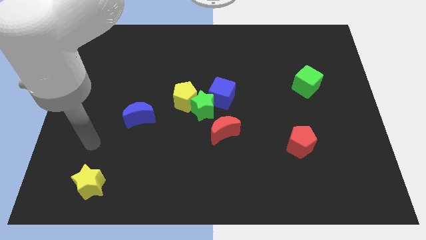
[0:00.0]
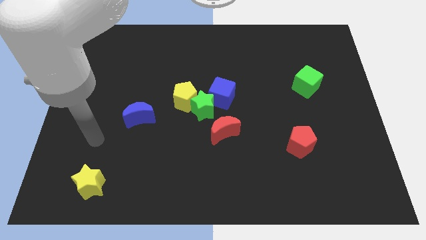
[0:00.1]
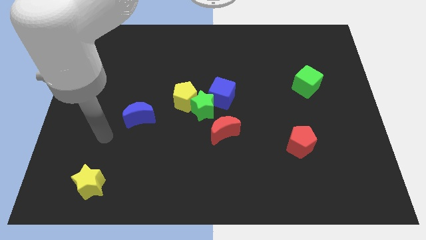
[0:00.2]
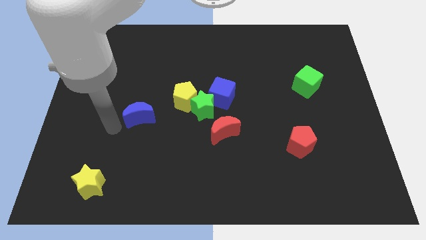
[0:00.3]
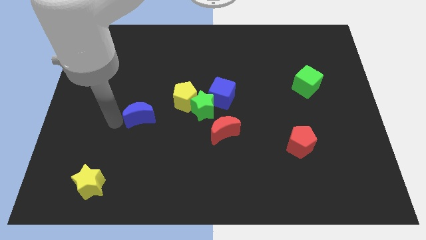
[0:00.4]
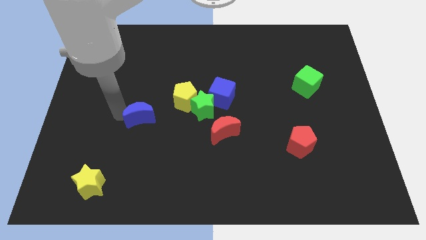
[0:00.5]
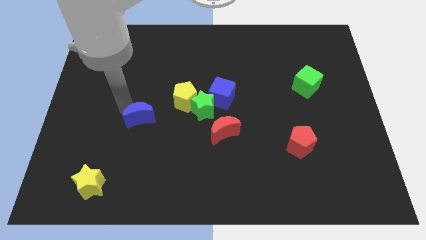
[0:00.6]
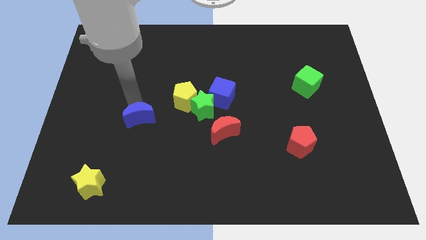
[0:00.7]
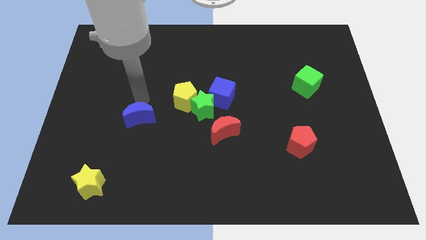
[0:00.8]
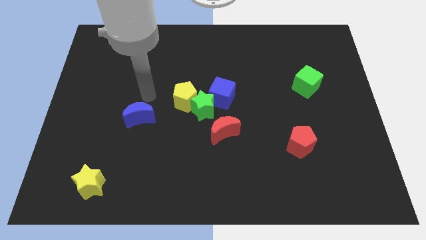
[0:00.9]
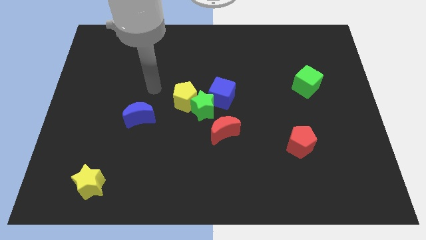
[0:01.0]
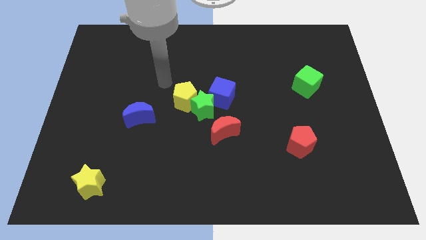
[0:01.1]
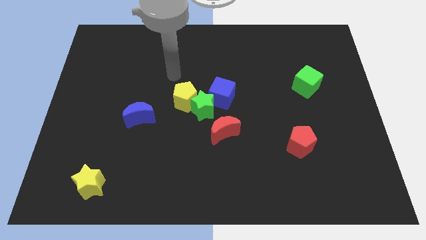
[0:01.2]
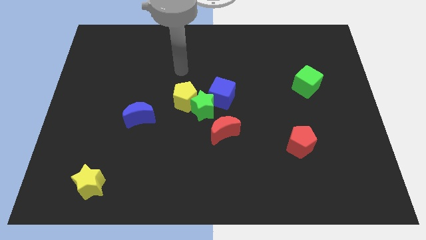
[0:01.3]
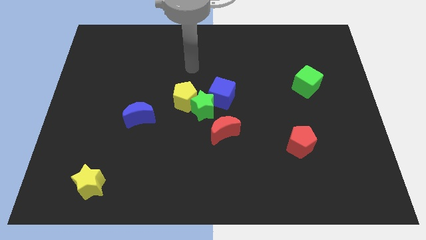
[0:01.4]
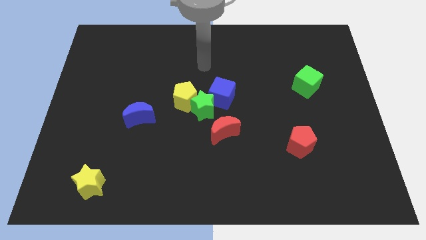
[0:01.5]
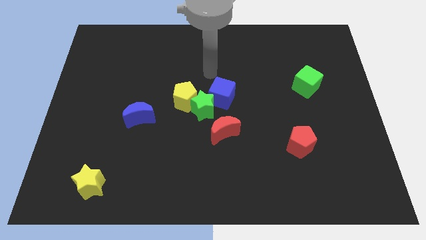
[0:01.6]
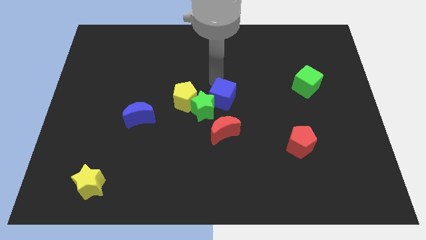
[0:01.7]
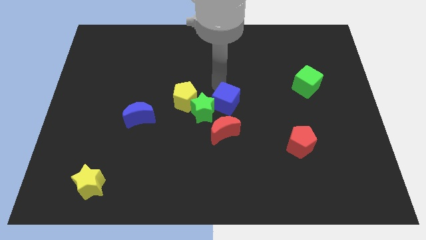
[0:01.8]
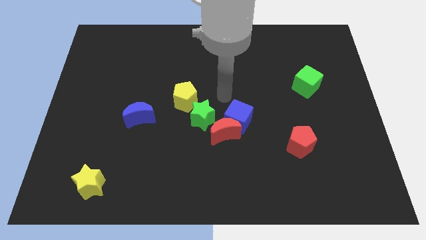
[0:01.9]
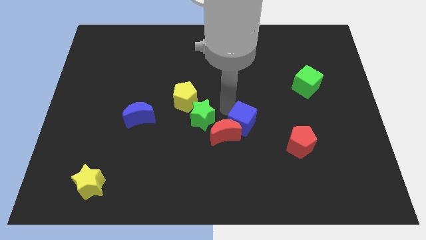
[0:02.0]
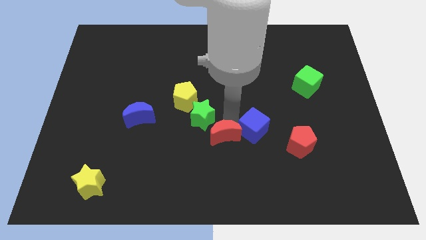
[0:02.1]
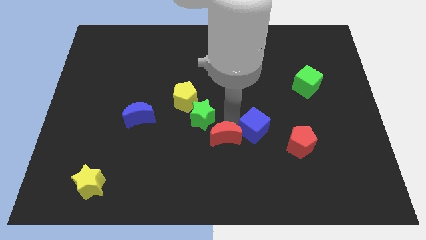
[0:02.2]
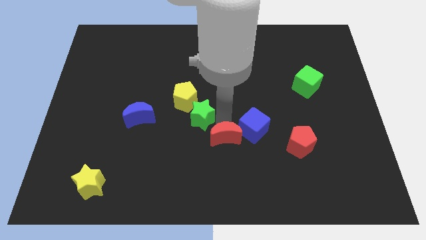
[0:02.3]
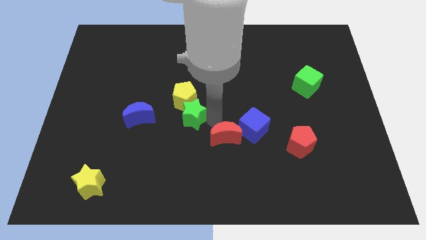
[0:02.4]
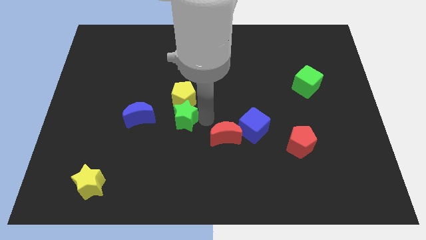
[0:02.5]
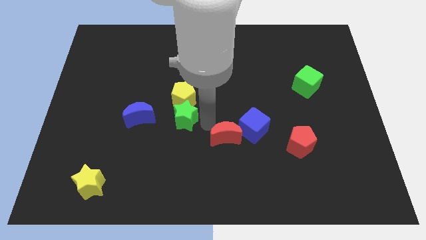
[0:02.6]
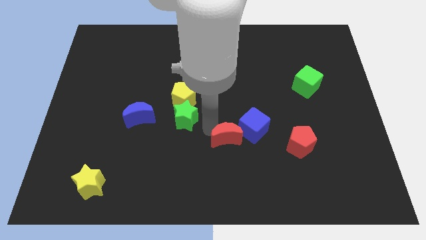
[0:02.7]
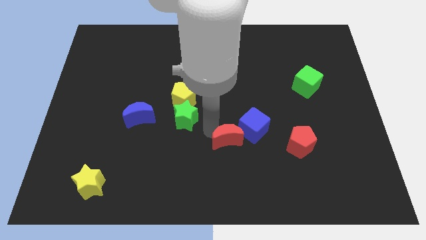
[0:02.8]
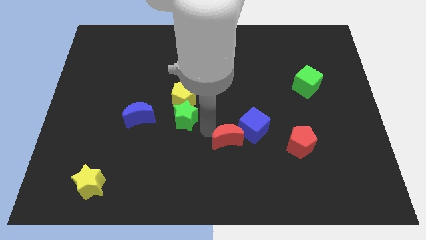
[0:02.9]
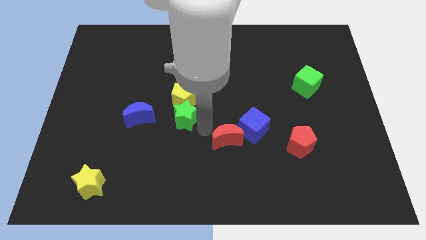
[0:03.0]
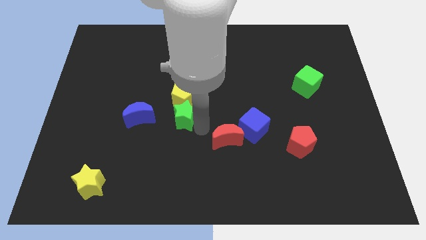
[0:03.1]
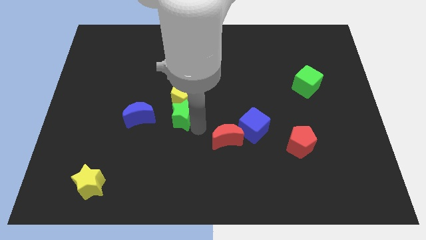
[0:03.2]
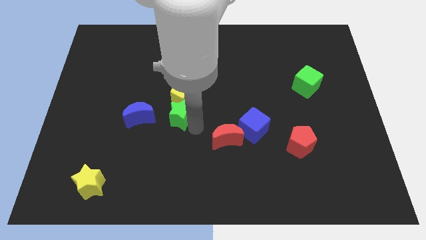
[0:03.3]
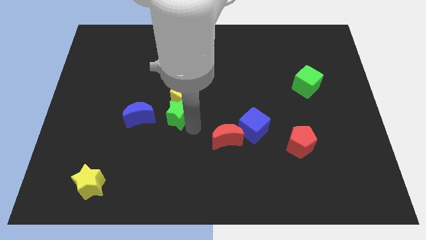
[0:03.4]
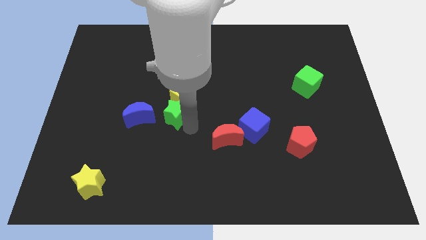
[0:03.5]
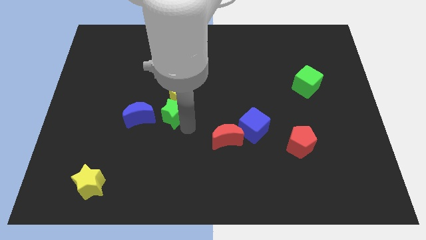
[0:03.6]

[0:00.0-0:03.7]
pull the green star apart from the yellow pentagon, blue cube, and red moon

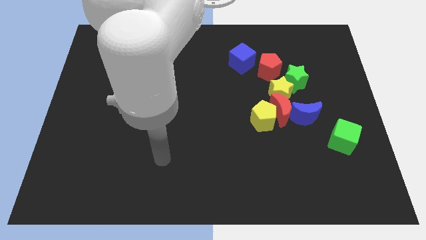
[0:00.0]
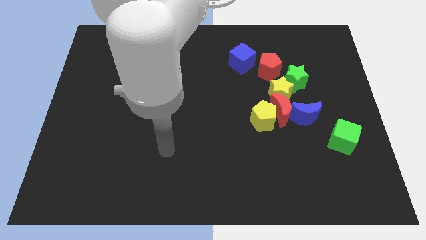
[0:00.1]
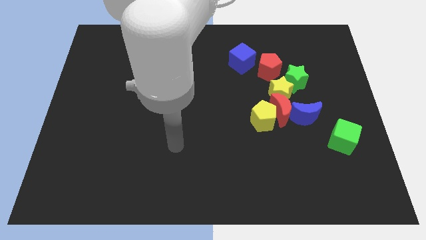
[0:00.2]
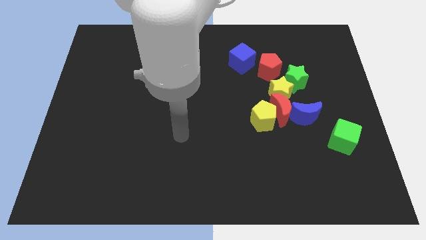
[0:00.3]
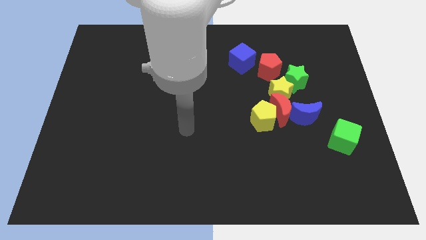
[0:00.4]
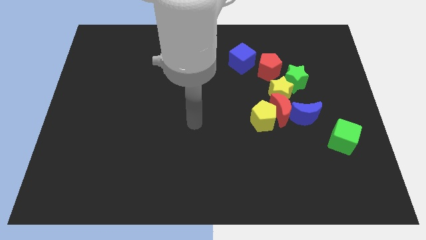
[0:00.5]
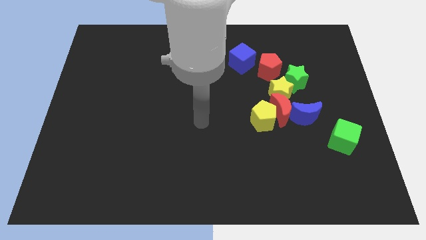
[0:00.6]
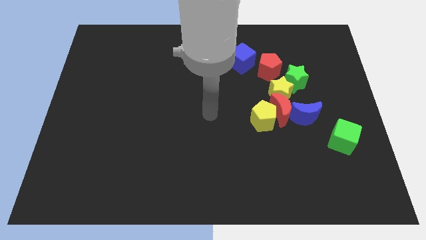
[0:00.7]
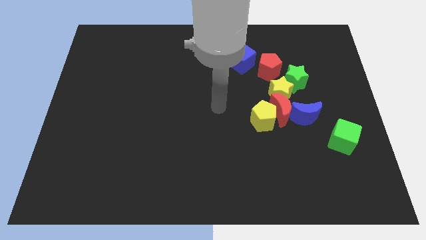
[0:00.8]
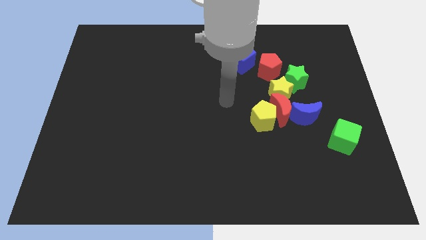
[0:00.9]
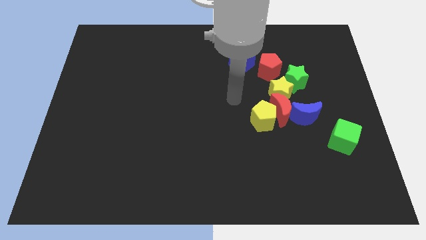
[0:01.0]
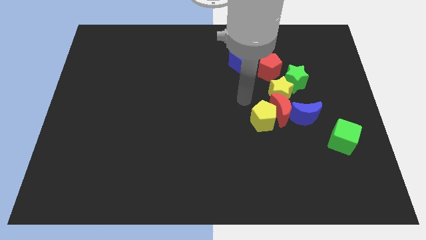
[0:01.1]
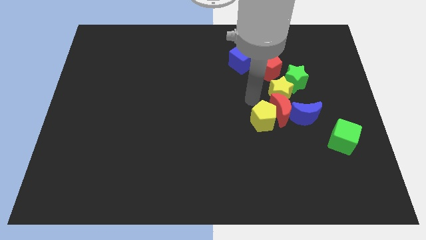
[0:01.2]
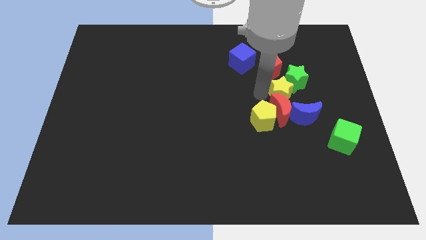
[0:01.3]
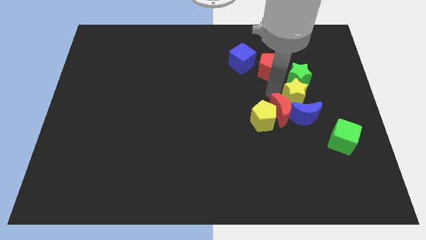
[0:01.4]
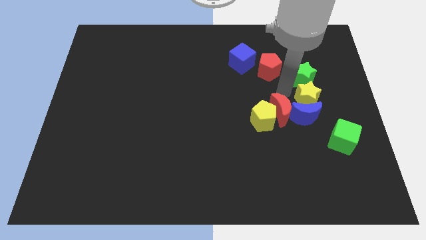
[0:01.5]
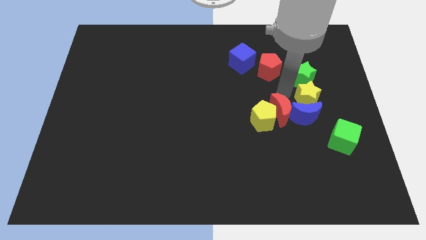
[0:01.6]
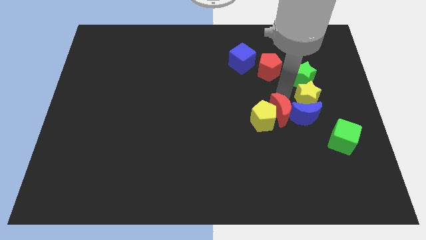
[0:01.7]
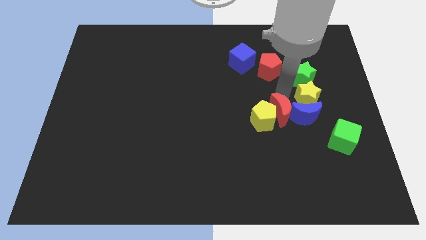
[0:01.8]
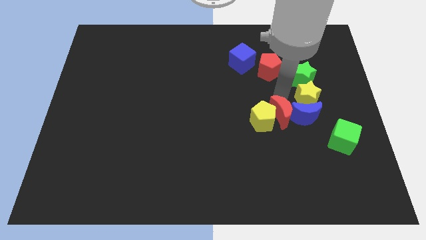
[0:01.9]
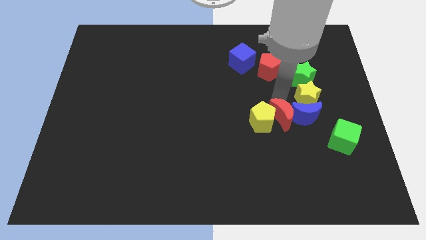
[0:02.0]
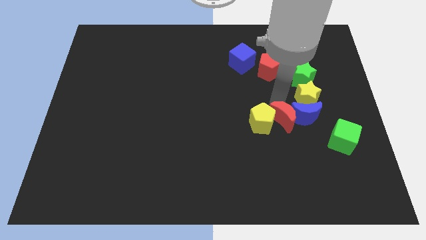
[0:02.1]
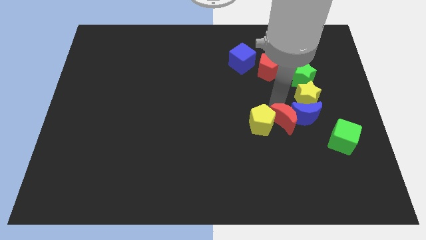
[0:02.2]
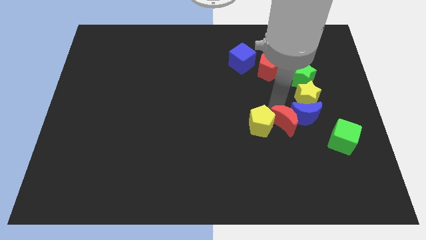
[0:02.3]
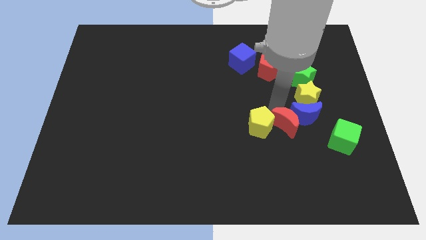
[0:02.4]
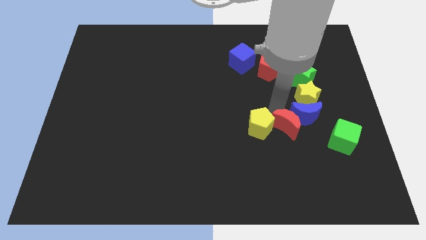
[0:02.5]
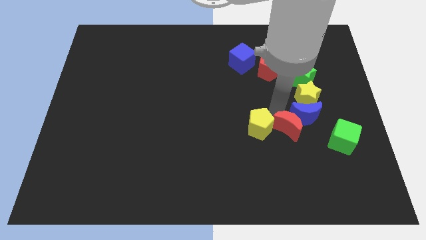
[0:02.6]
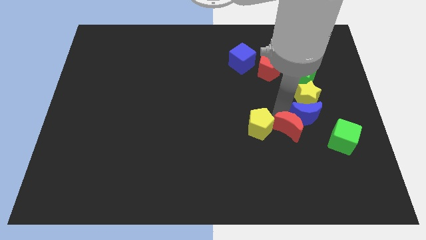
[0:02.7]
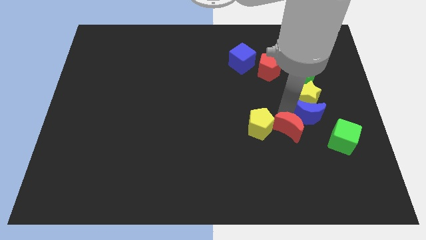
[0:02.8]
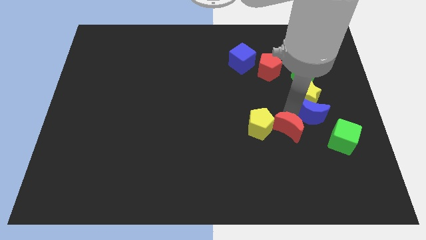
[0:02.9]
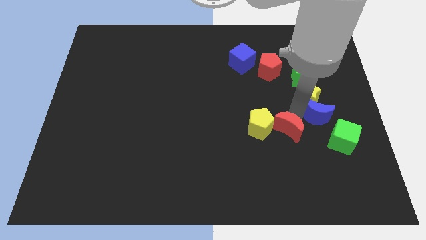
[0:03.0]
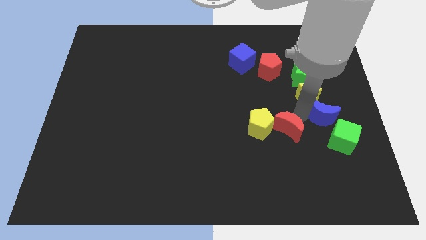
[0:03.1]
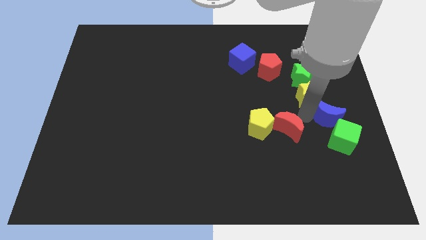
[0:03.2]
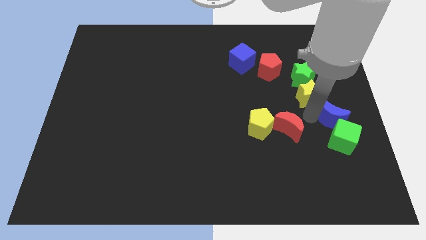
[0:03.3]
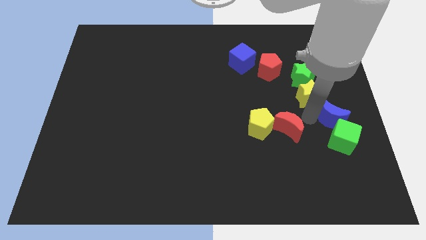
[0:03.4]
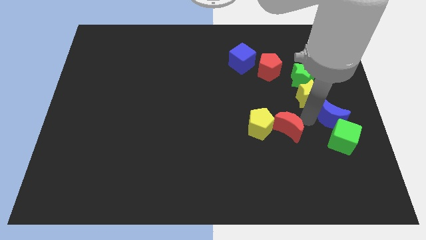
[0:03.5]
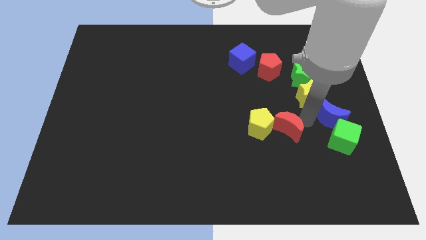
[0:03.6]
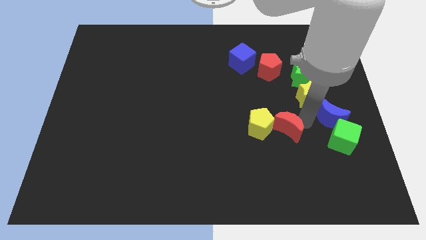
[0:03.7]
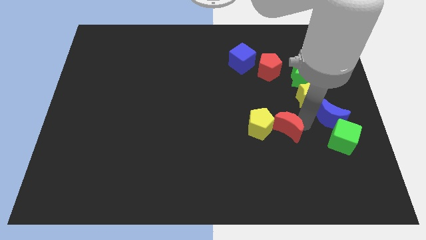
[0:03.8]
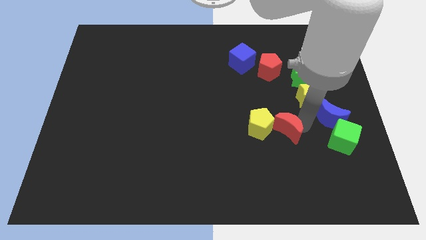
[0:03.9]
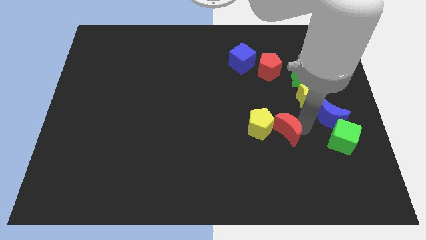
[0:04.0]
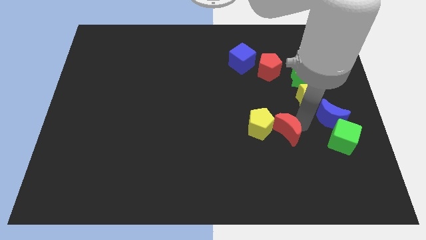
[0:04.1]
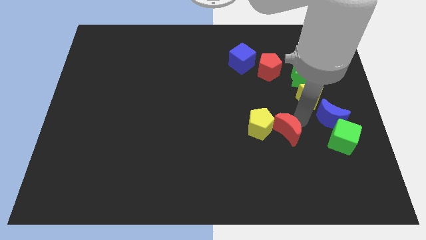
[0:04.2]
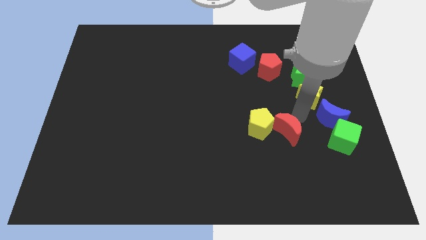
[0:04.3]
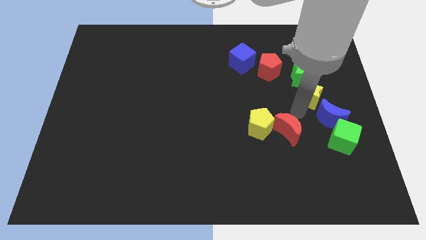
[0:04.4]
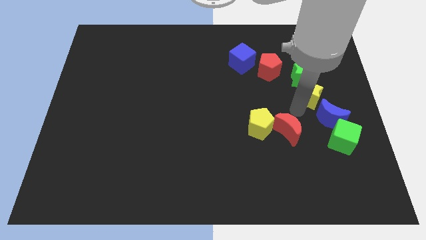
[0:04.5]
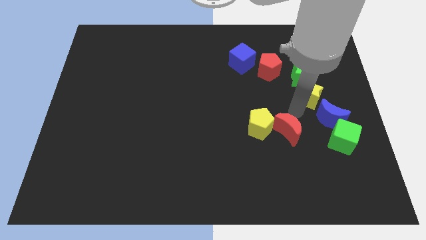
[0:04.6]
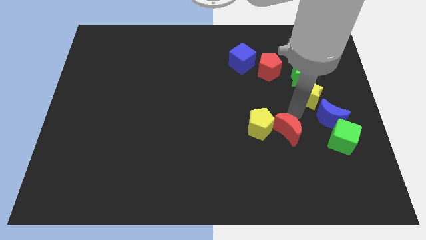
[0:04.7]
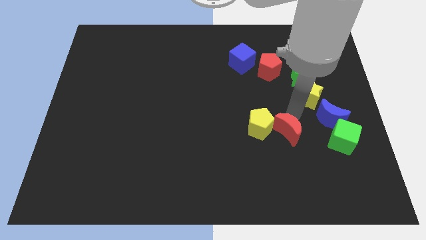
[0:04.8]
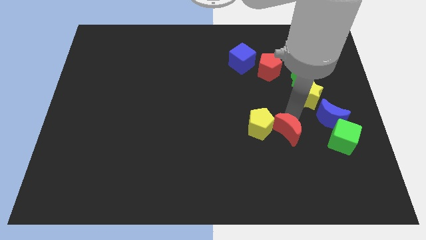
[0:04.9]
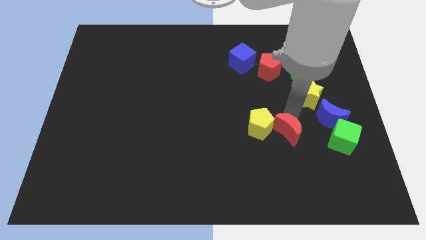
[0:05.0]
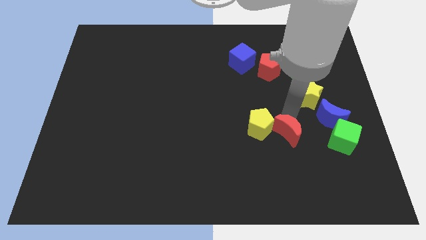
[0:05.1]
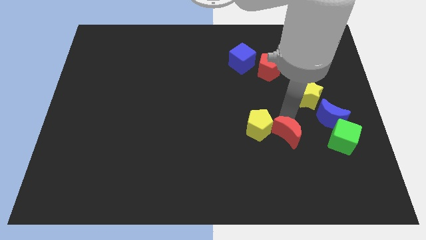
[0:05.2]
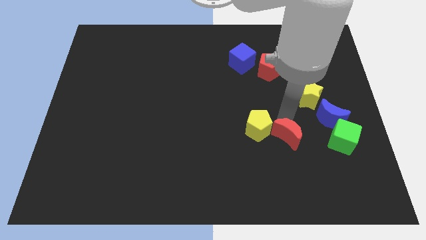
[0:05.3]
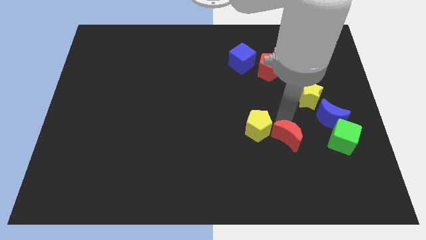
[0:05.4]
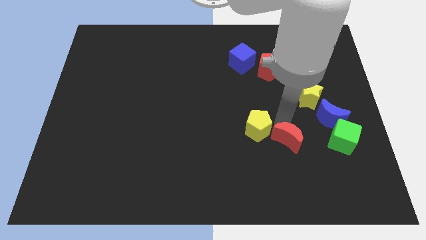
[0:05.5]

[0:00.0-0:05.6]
pull the red moon apart from the group
